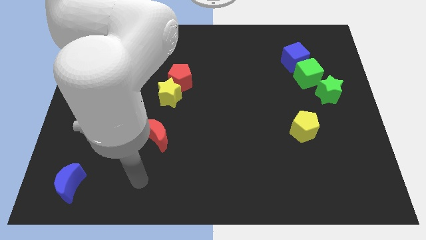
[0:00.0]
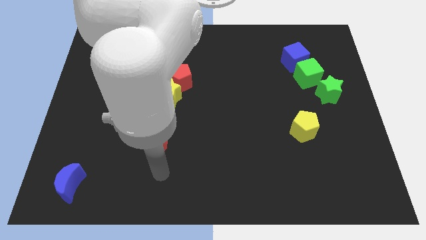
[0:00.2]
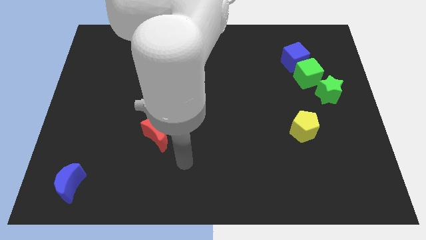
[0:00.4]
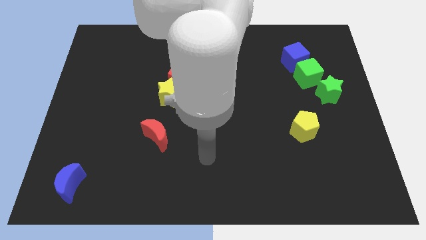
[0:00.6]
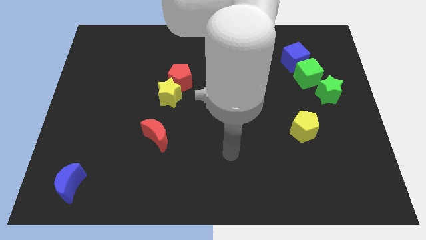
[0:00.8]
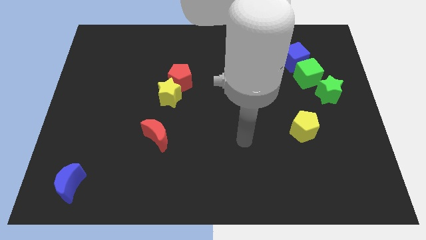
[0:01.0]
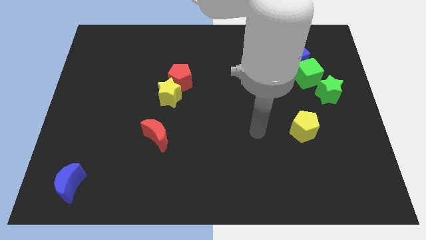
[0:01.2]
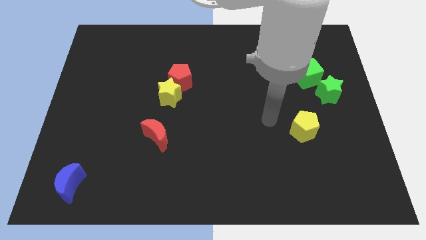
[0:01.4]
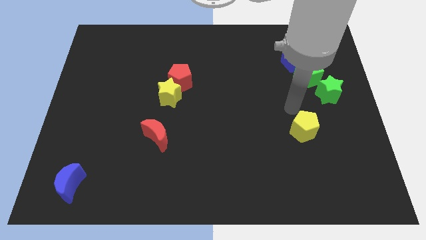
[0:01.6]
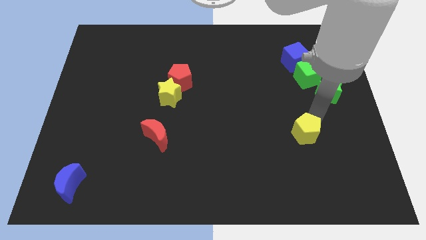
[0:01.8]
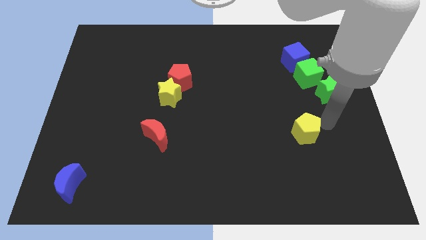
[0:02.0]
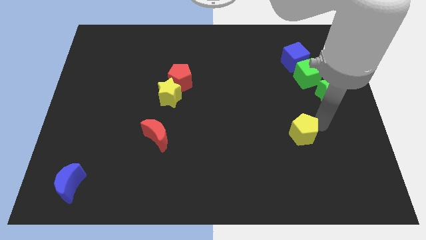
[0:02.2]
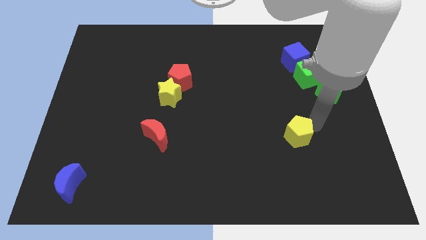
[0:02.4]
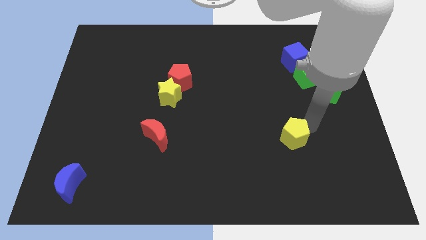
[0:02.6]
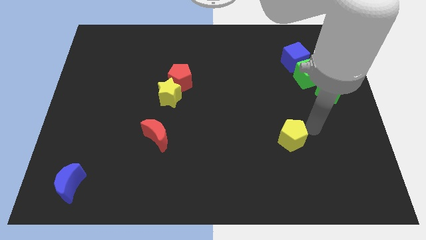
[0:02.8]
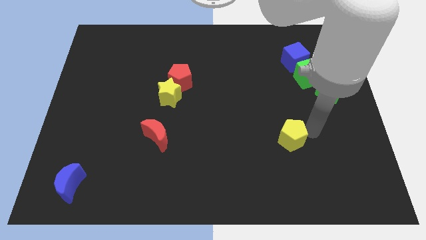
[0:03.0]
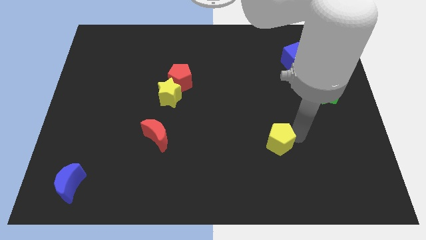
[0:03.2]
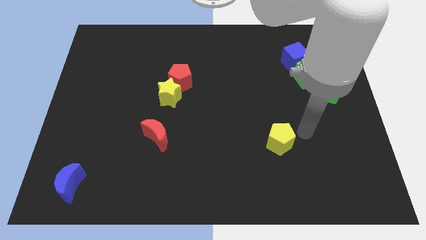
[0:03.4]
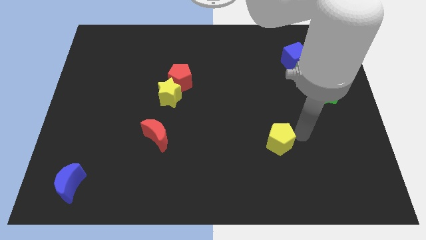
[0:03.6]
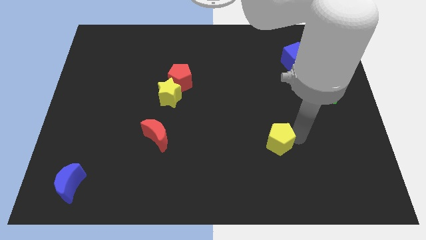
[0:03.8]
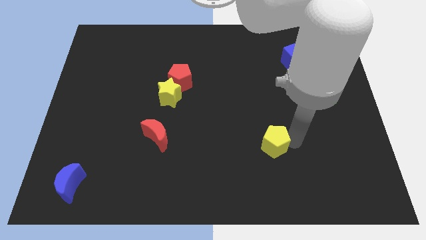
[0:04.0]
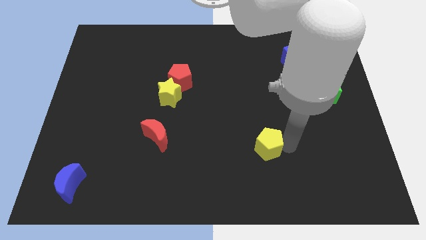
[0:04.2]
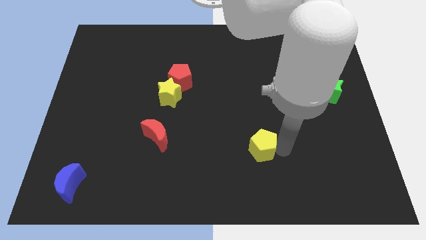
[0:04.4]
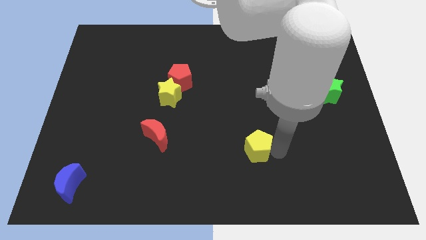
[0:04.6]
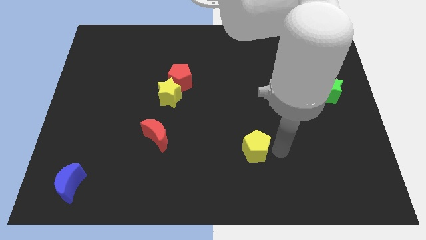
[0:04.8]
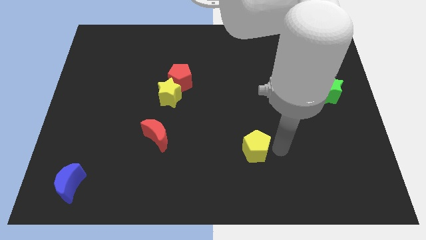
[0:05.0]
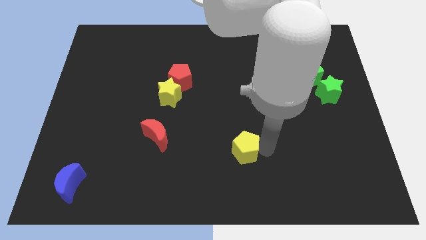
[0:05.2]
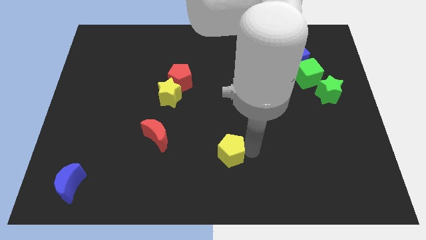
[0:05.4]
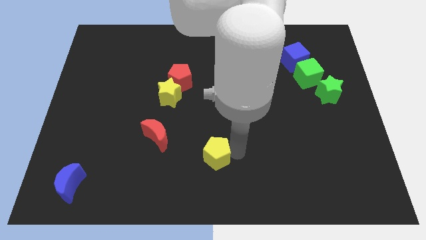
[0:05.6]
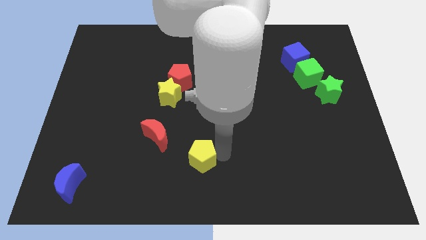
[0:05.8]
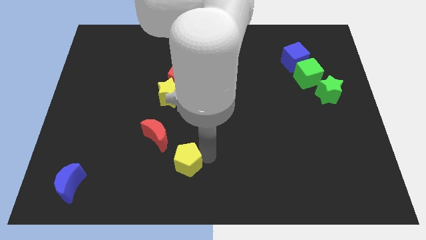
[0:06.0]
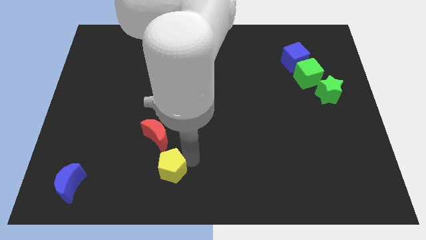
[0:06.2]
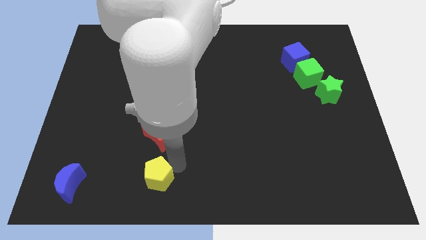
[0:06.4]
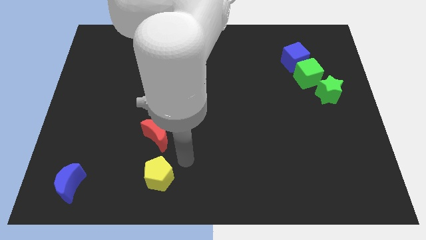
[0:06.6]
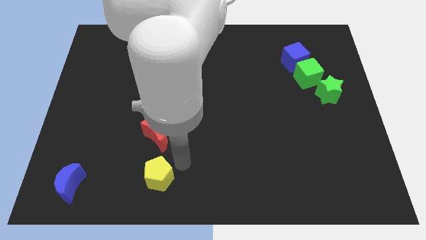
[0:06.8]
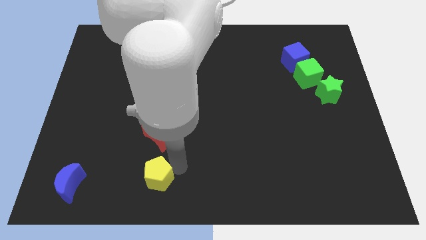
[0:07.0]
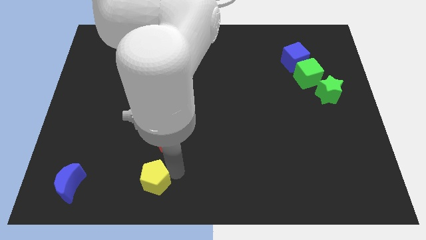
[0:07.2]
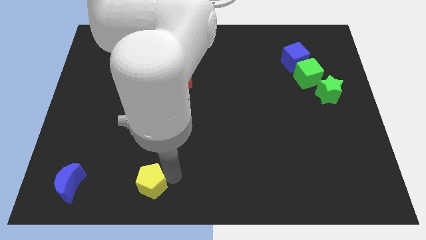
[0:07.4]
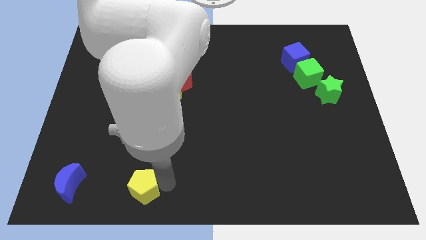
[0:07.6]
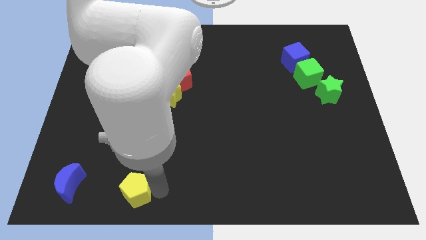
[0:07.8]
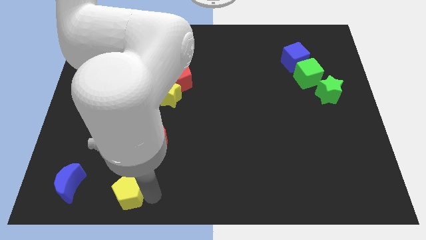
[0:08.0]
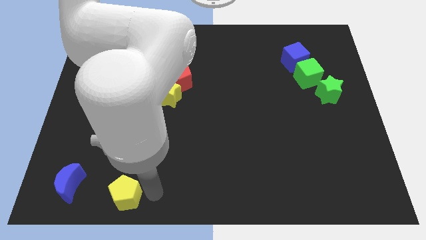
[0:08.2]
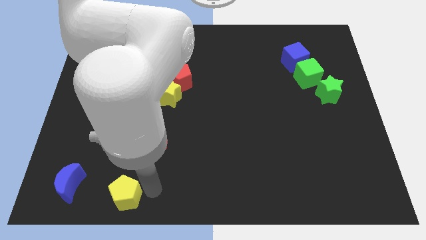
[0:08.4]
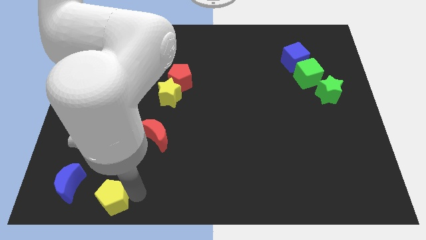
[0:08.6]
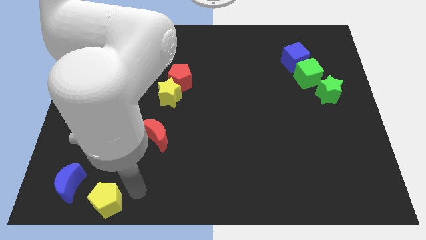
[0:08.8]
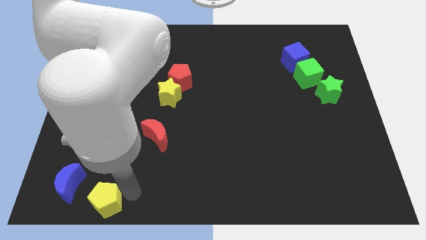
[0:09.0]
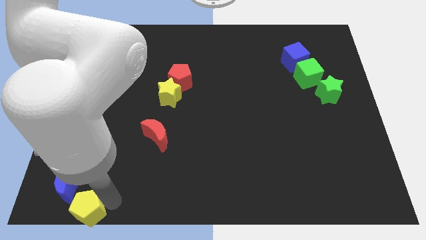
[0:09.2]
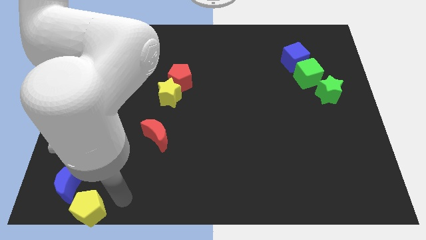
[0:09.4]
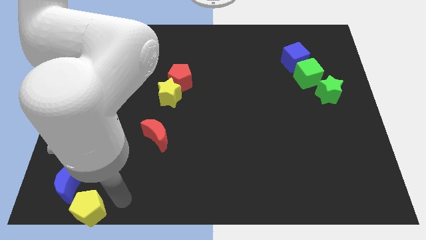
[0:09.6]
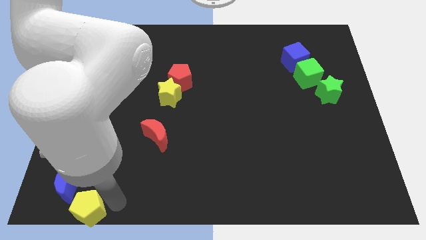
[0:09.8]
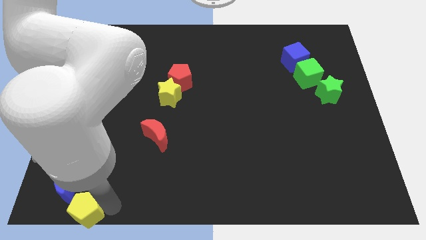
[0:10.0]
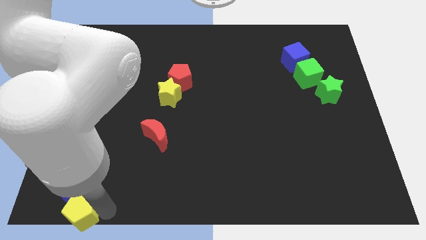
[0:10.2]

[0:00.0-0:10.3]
slide the yellow pentagon to the bottom left corner

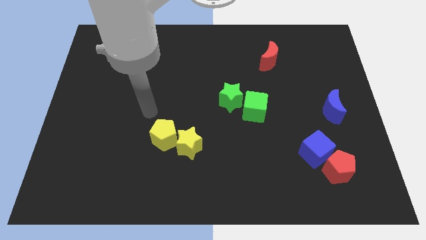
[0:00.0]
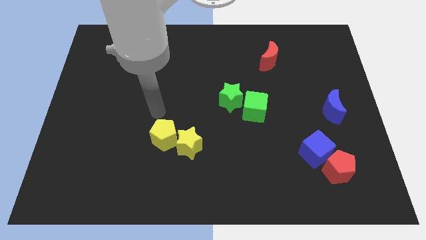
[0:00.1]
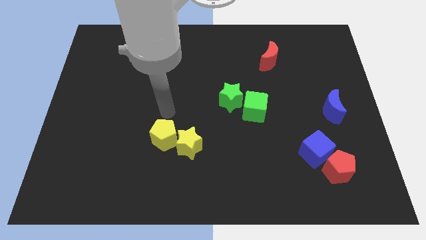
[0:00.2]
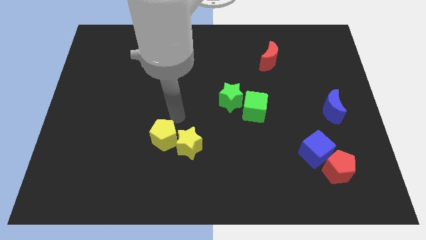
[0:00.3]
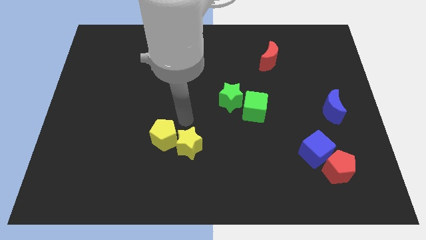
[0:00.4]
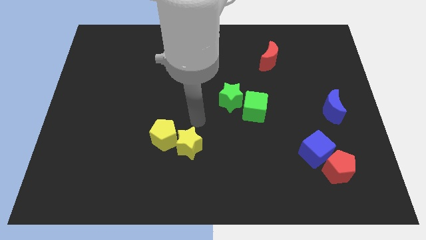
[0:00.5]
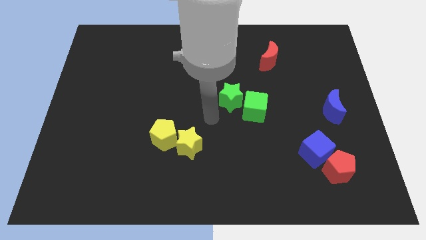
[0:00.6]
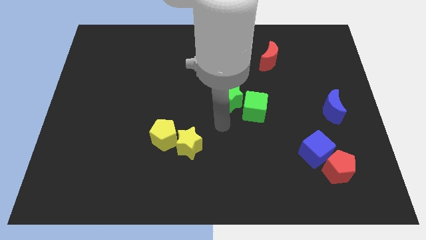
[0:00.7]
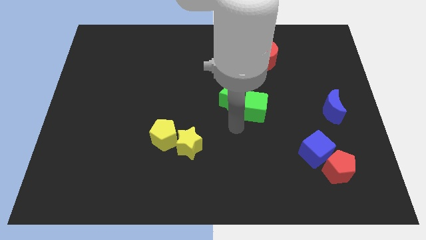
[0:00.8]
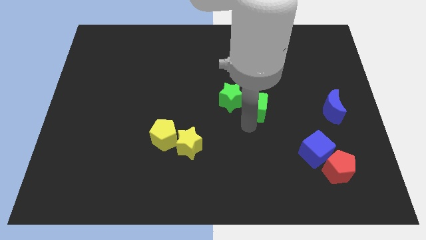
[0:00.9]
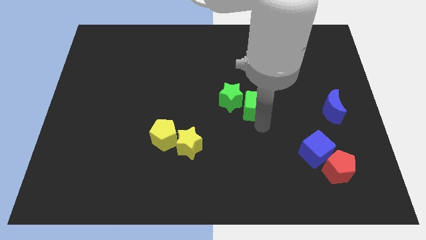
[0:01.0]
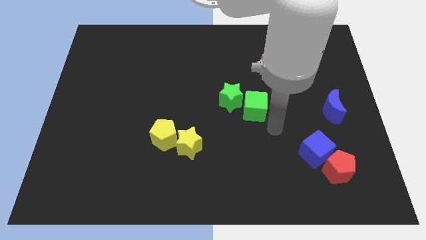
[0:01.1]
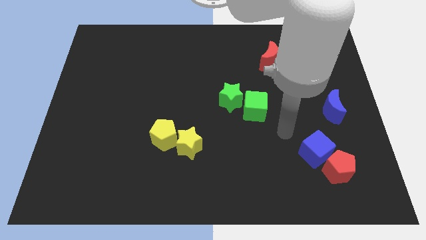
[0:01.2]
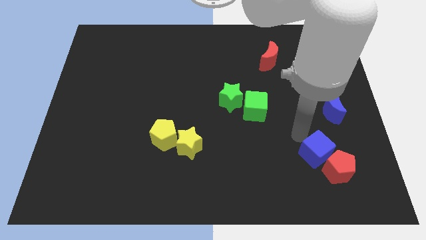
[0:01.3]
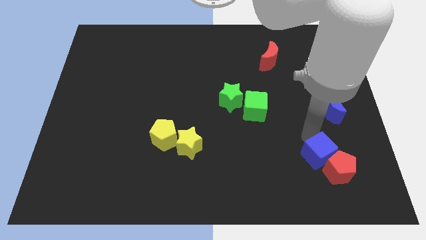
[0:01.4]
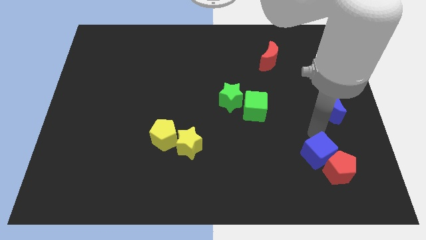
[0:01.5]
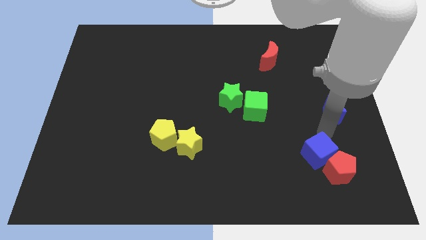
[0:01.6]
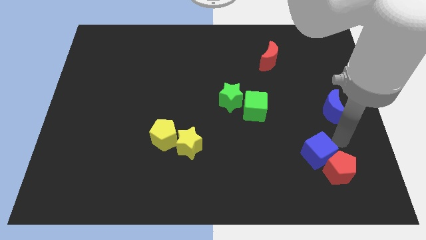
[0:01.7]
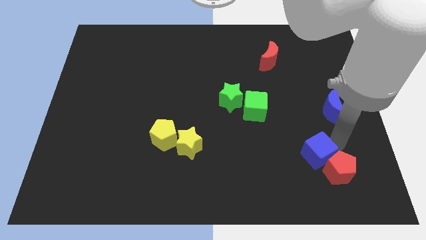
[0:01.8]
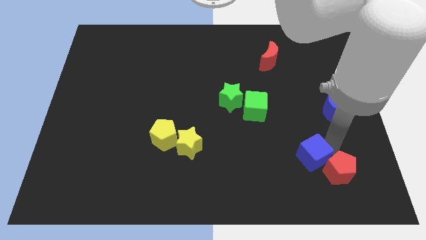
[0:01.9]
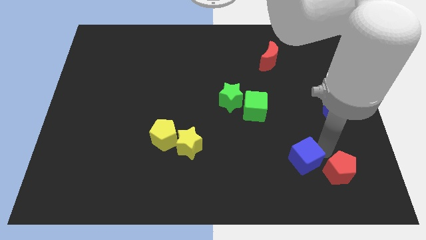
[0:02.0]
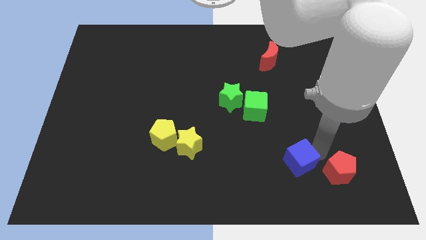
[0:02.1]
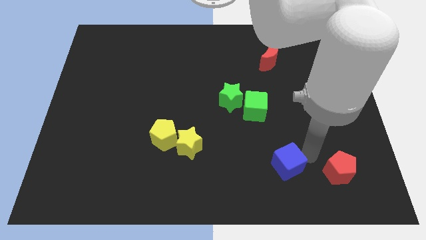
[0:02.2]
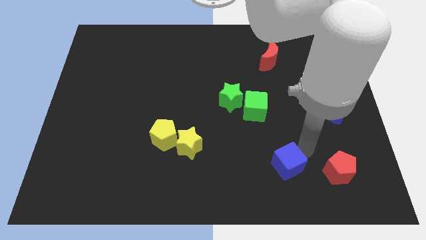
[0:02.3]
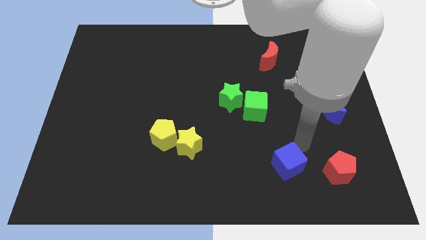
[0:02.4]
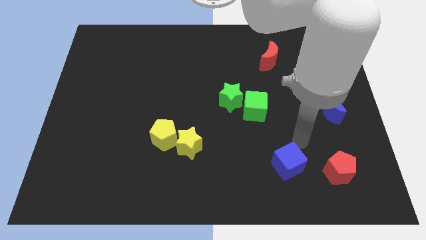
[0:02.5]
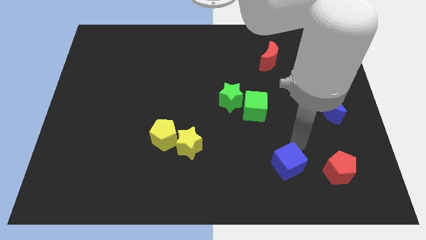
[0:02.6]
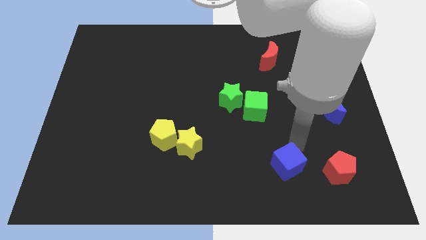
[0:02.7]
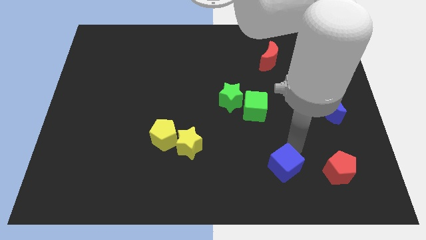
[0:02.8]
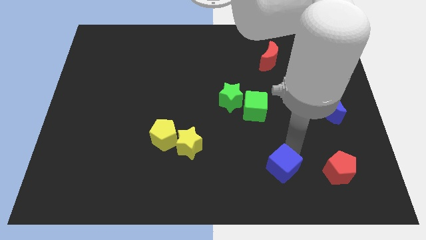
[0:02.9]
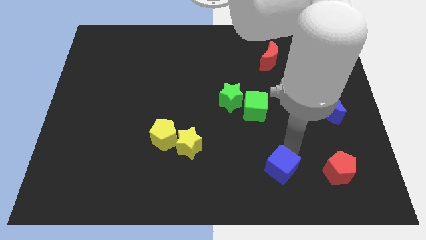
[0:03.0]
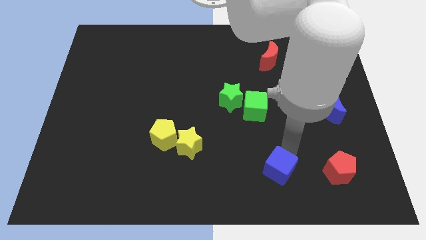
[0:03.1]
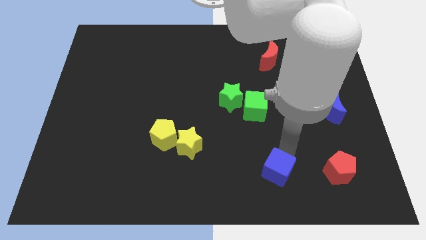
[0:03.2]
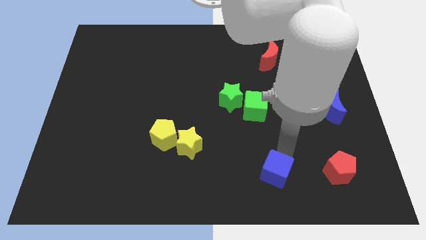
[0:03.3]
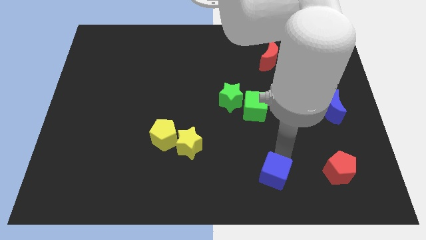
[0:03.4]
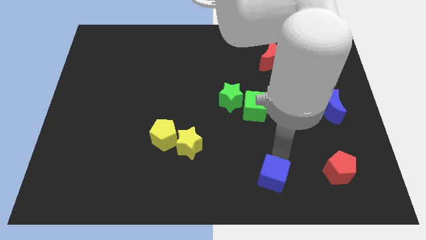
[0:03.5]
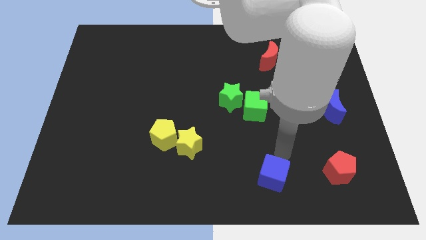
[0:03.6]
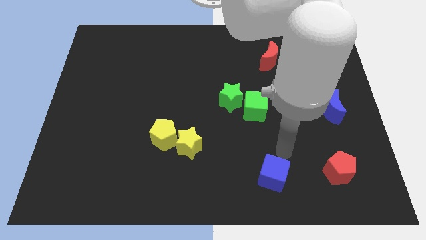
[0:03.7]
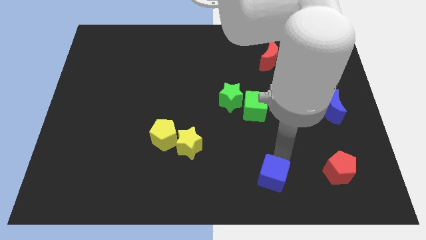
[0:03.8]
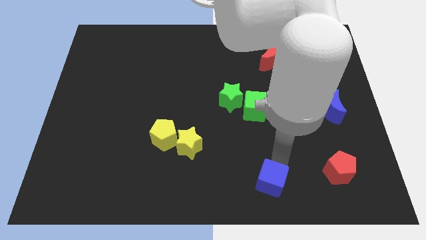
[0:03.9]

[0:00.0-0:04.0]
slide the blue cube to the bottom side
